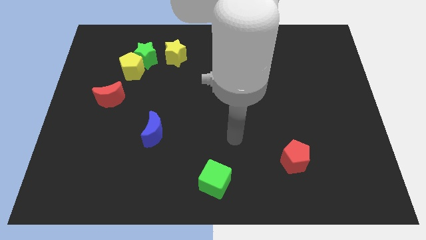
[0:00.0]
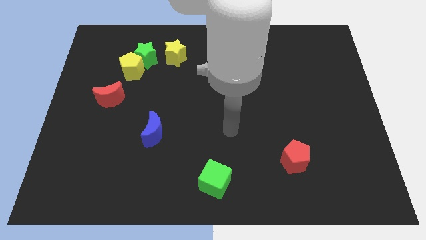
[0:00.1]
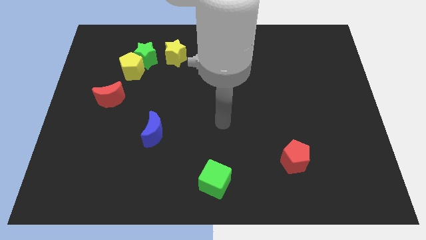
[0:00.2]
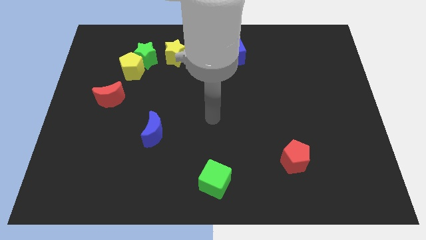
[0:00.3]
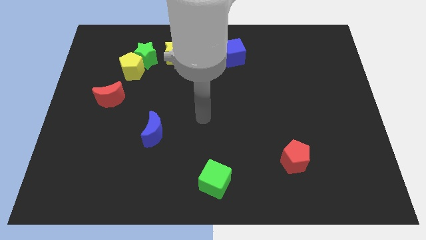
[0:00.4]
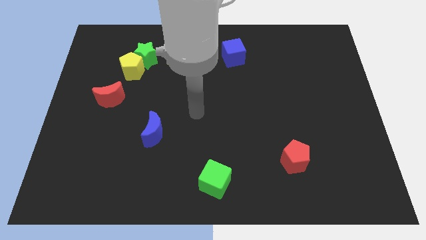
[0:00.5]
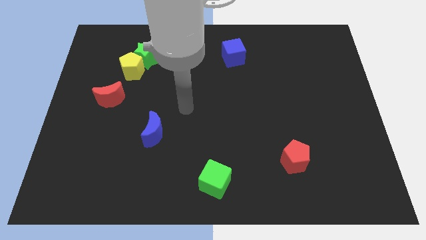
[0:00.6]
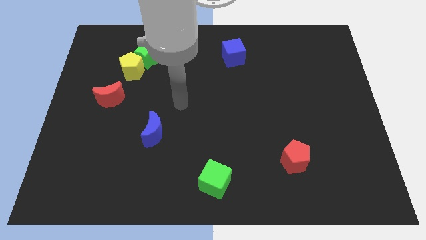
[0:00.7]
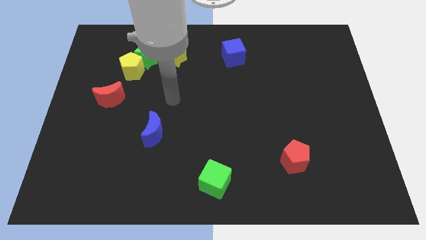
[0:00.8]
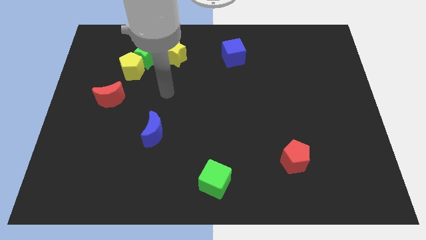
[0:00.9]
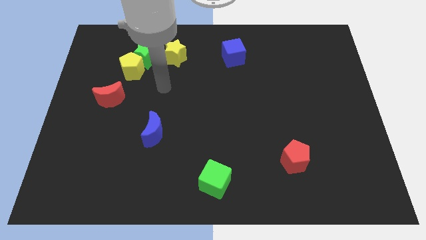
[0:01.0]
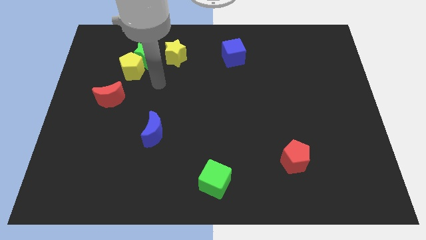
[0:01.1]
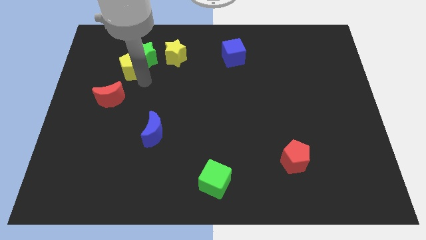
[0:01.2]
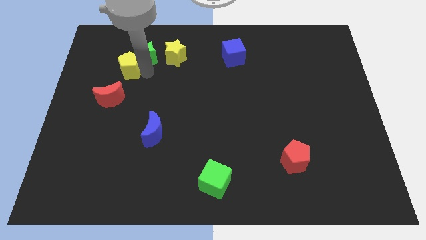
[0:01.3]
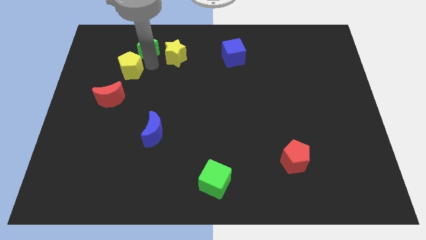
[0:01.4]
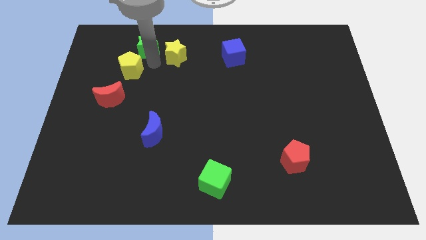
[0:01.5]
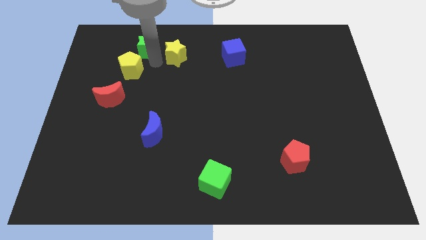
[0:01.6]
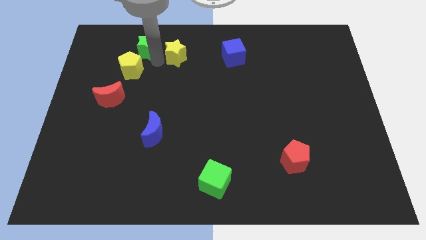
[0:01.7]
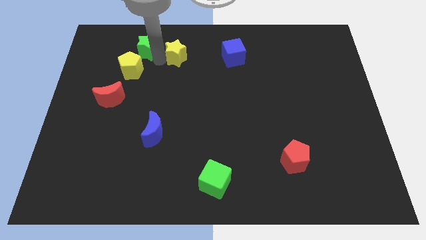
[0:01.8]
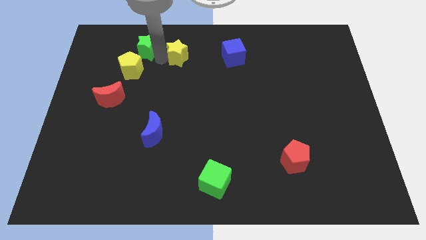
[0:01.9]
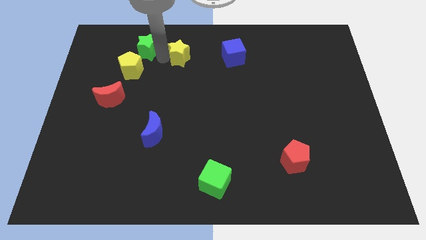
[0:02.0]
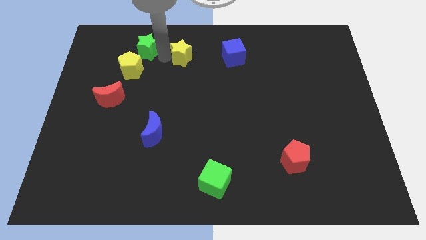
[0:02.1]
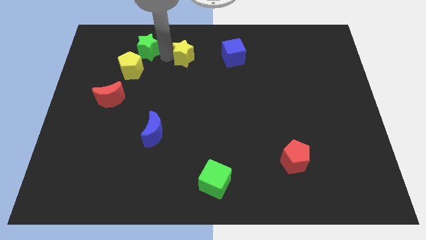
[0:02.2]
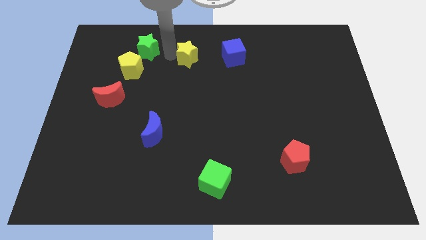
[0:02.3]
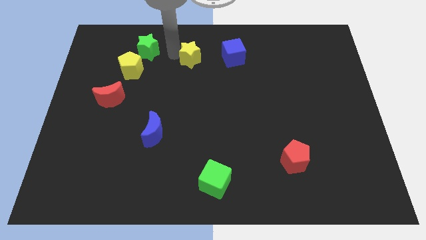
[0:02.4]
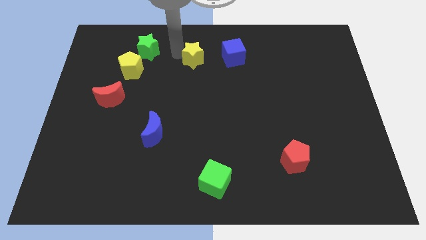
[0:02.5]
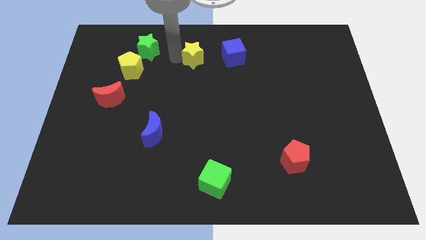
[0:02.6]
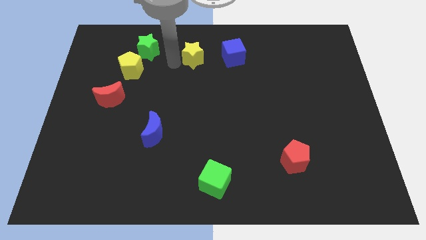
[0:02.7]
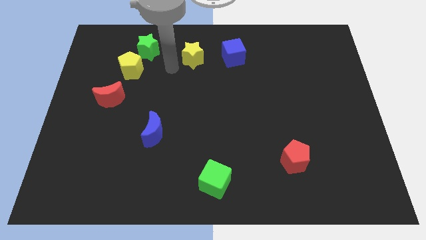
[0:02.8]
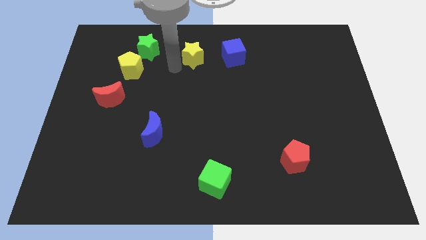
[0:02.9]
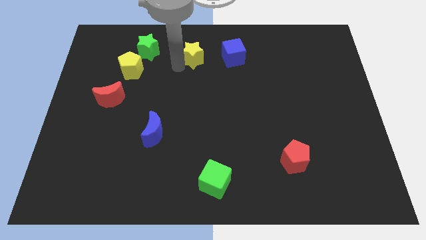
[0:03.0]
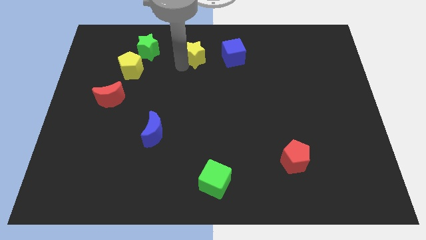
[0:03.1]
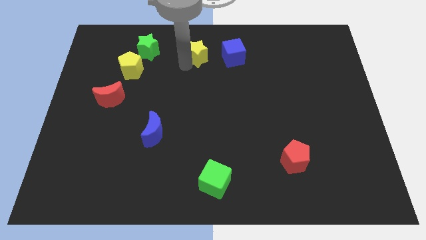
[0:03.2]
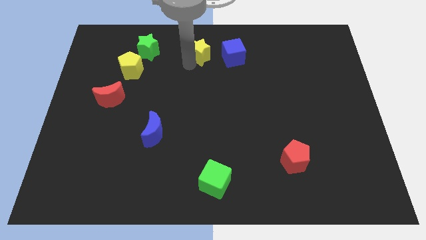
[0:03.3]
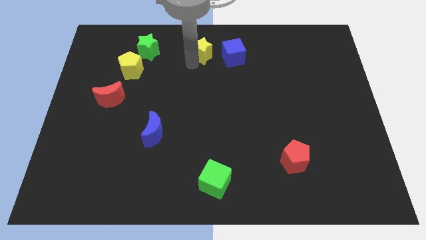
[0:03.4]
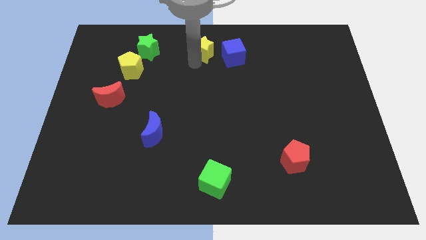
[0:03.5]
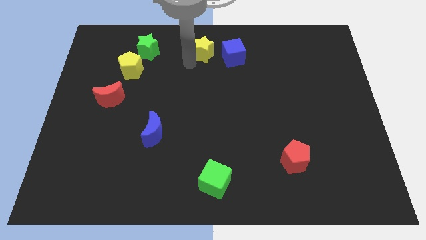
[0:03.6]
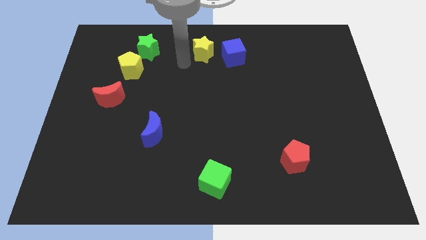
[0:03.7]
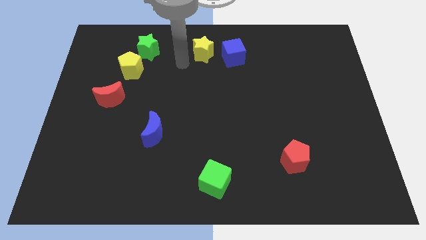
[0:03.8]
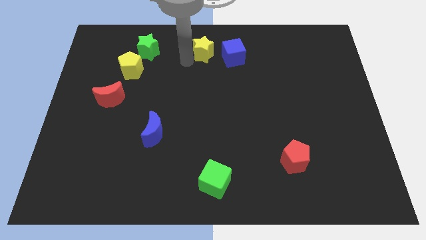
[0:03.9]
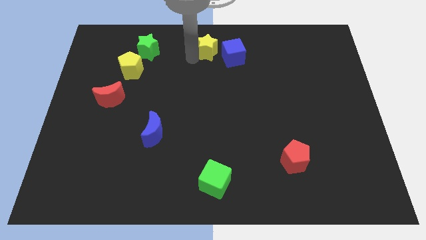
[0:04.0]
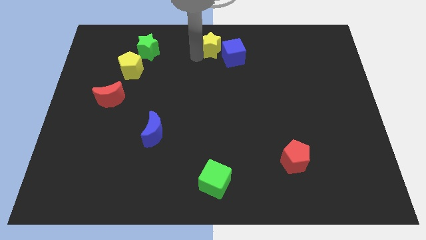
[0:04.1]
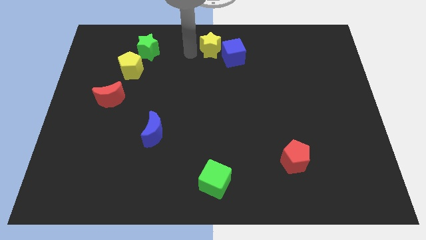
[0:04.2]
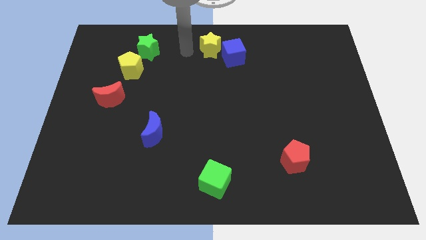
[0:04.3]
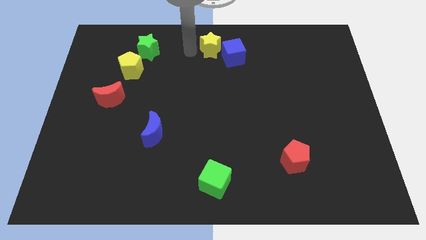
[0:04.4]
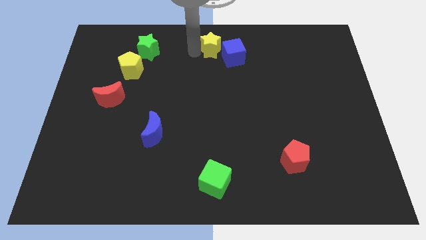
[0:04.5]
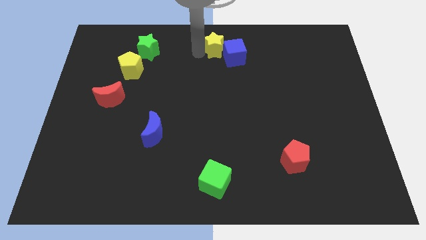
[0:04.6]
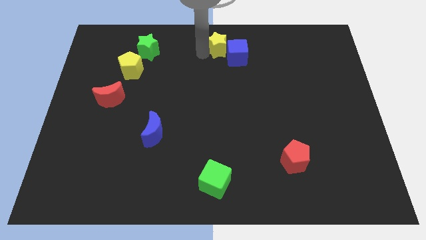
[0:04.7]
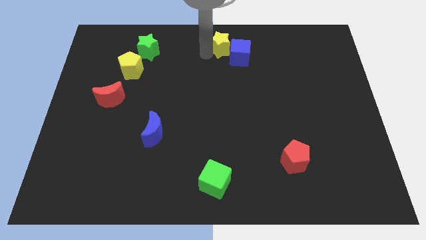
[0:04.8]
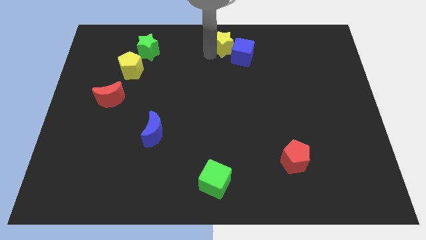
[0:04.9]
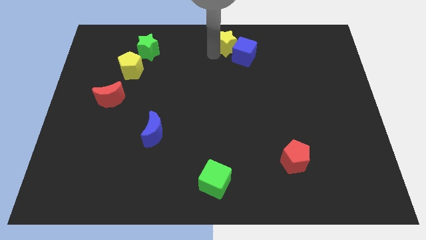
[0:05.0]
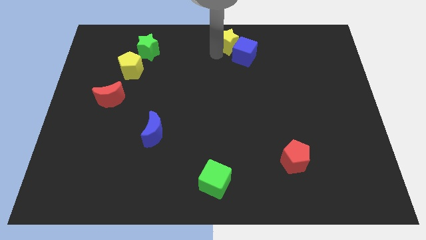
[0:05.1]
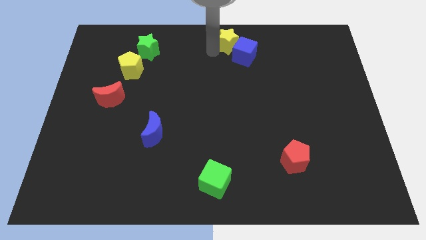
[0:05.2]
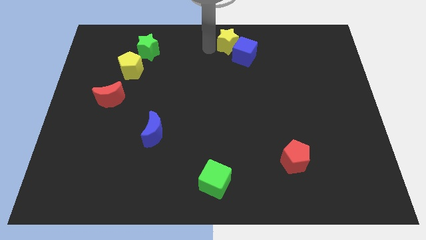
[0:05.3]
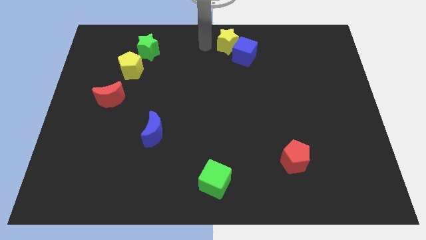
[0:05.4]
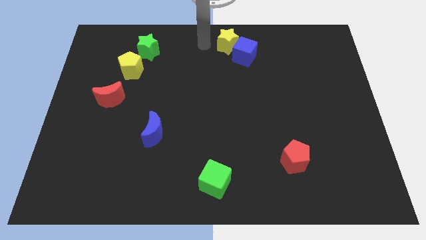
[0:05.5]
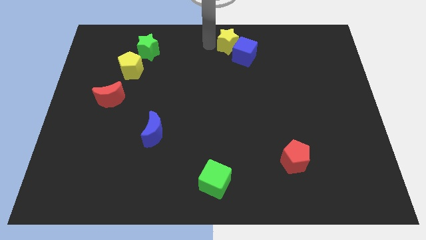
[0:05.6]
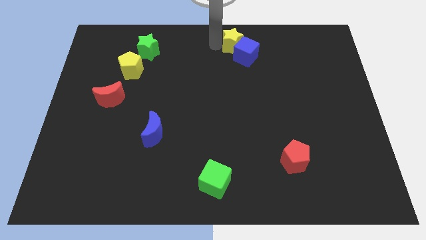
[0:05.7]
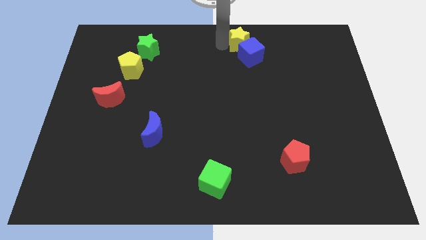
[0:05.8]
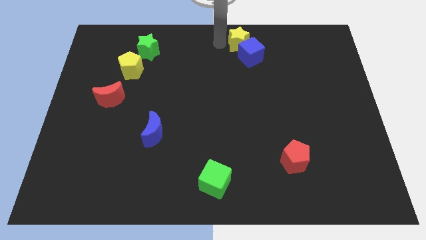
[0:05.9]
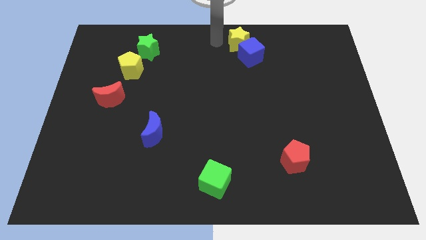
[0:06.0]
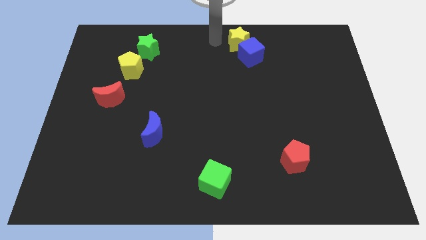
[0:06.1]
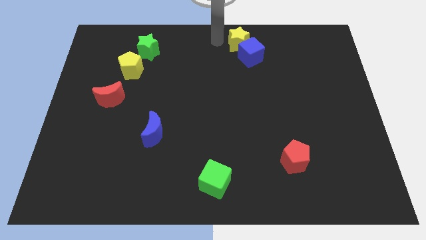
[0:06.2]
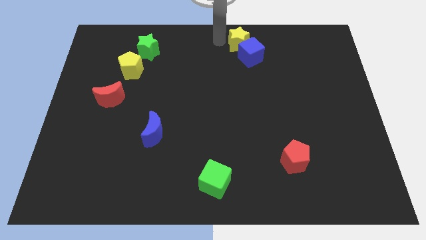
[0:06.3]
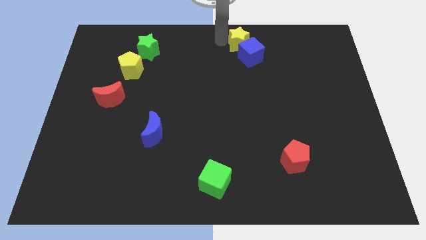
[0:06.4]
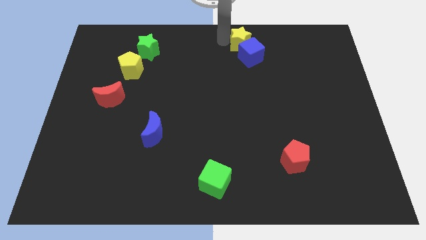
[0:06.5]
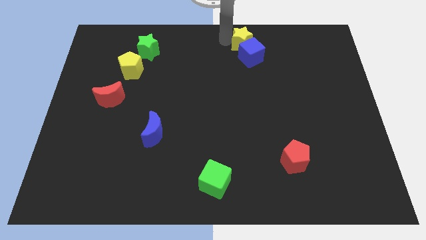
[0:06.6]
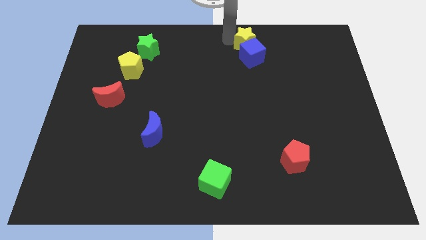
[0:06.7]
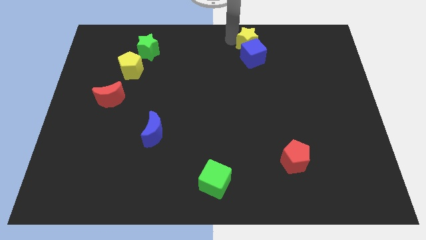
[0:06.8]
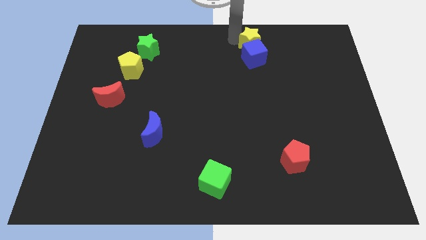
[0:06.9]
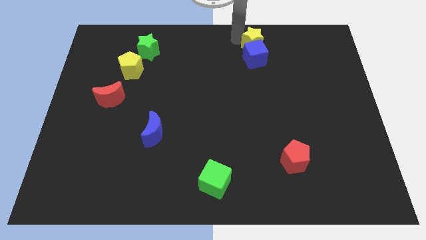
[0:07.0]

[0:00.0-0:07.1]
move the yellow star right

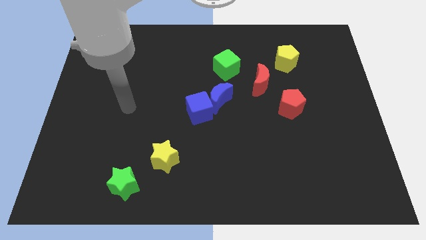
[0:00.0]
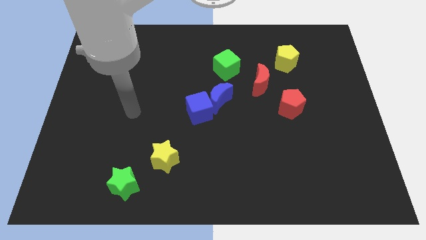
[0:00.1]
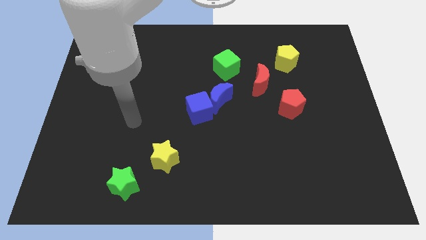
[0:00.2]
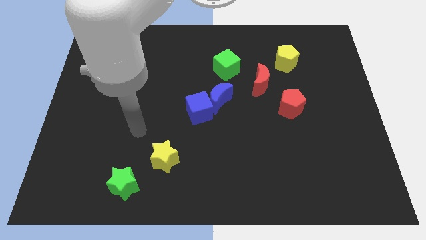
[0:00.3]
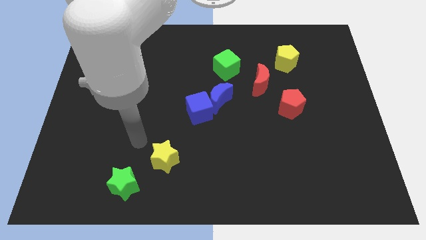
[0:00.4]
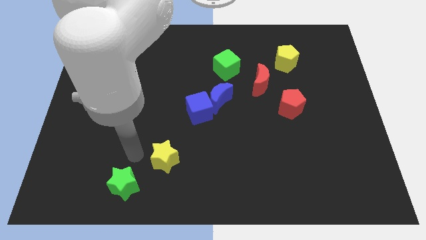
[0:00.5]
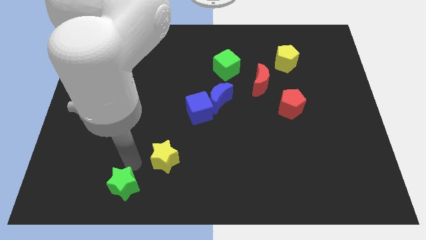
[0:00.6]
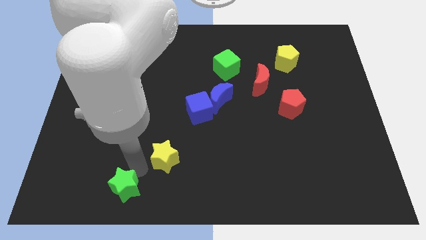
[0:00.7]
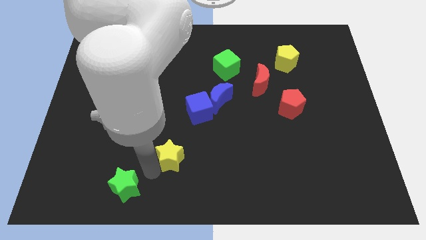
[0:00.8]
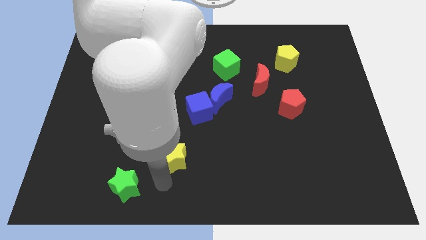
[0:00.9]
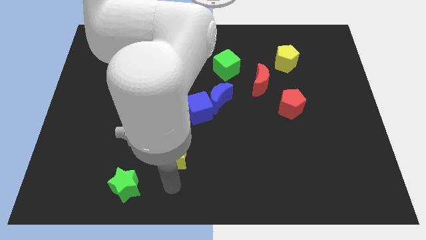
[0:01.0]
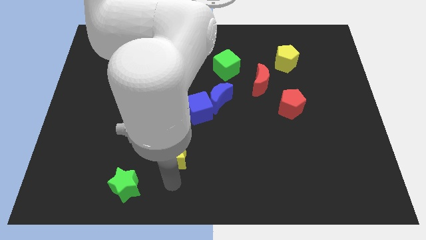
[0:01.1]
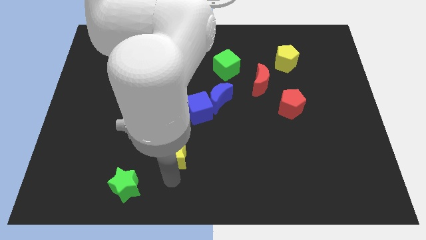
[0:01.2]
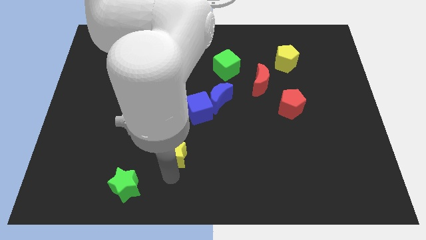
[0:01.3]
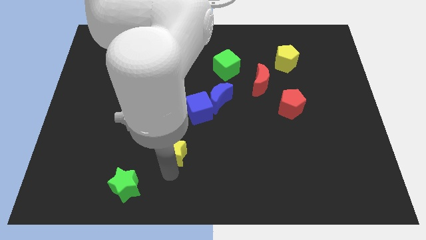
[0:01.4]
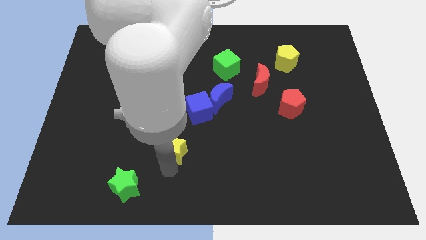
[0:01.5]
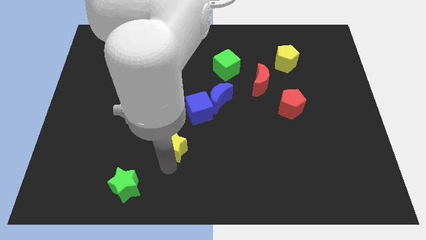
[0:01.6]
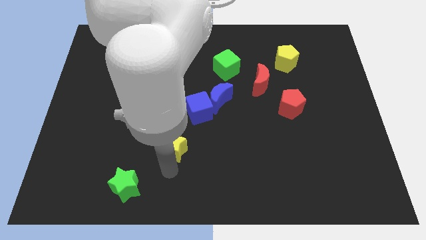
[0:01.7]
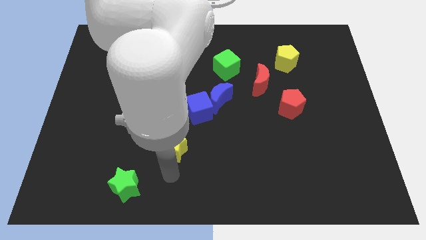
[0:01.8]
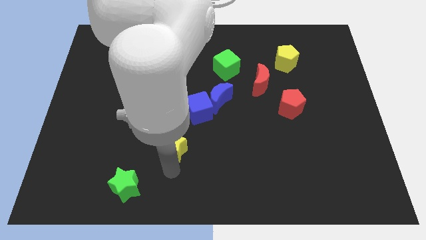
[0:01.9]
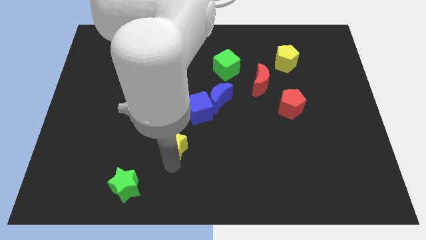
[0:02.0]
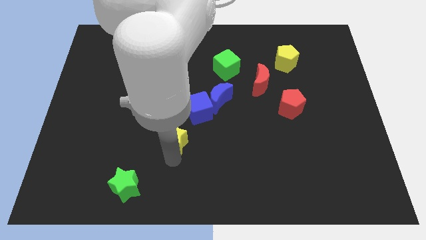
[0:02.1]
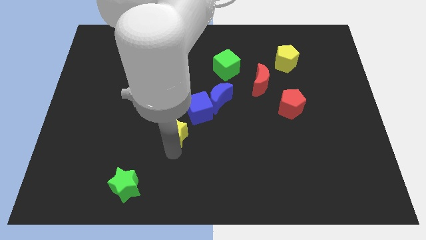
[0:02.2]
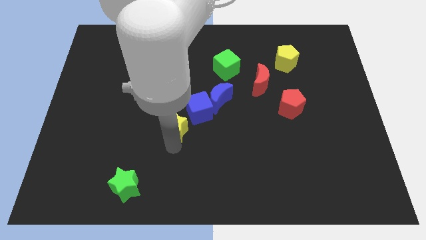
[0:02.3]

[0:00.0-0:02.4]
slightly slide the yellow star upwards
